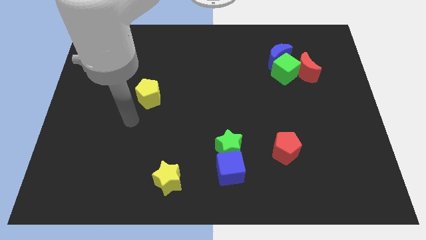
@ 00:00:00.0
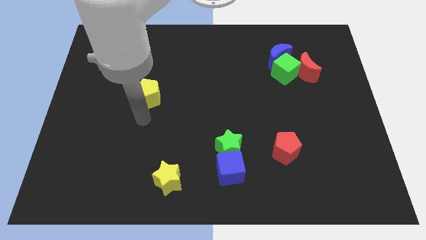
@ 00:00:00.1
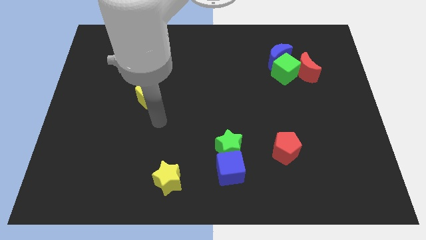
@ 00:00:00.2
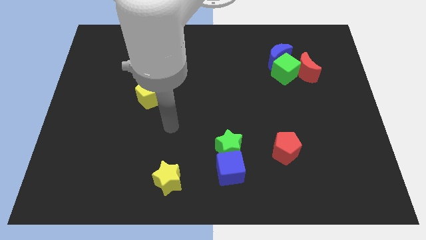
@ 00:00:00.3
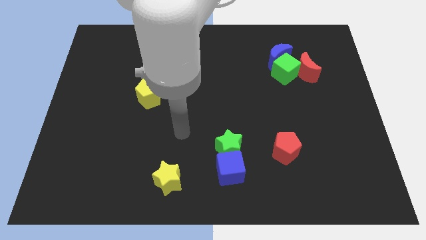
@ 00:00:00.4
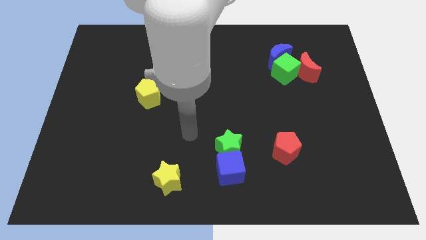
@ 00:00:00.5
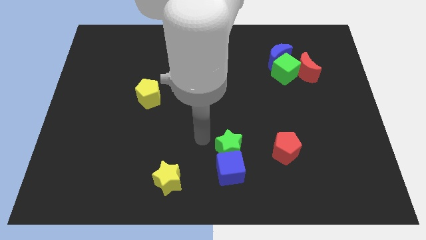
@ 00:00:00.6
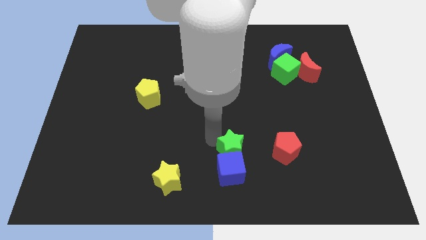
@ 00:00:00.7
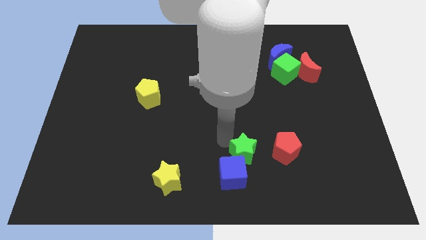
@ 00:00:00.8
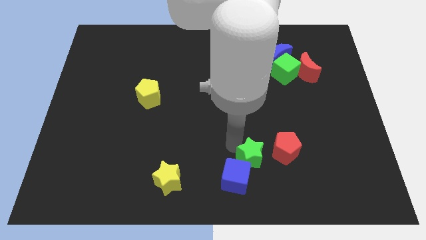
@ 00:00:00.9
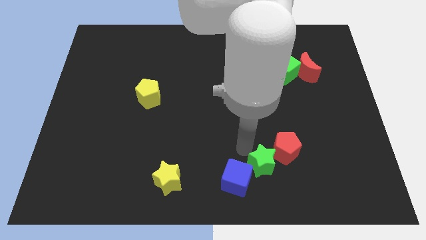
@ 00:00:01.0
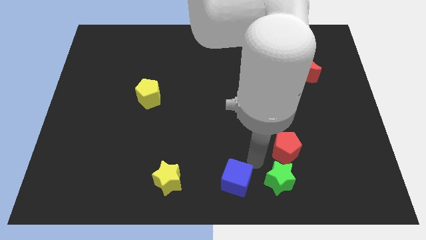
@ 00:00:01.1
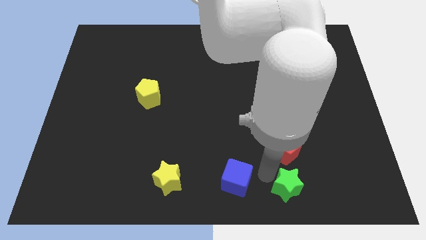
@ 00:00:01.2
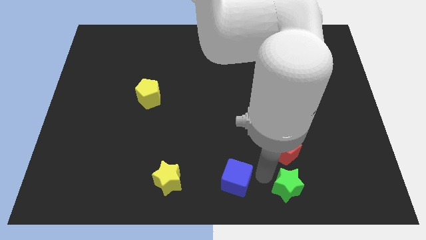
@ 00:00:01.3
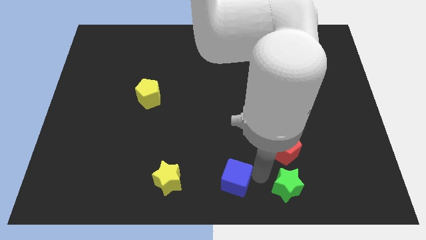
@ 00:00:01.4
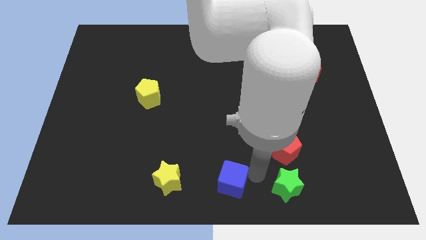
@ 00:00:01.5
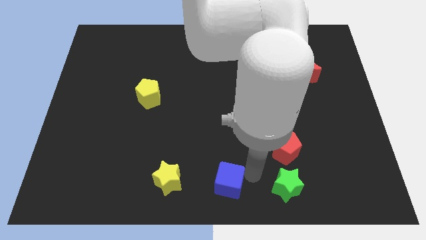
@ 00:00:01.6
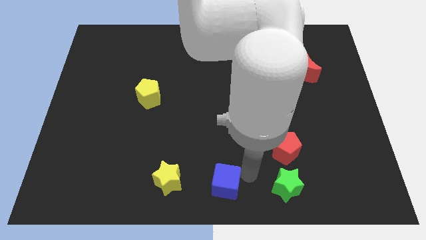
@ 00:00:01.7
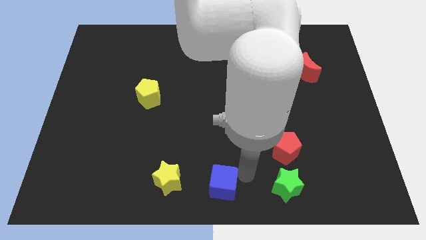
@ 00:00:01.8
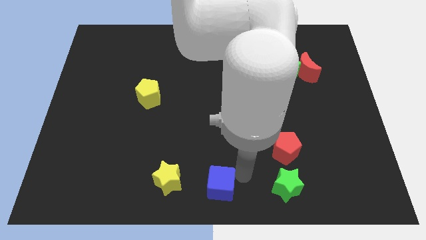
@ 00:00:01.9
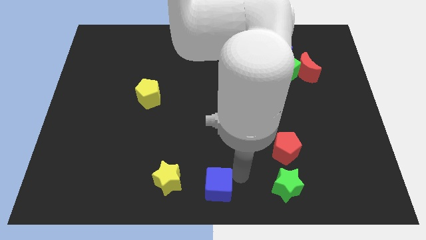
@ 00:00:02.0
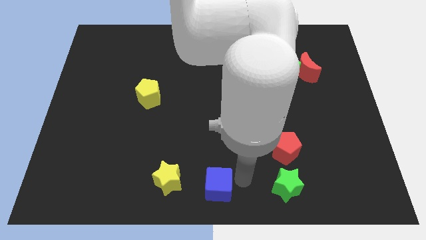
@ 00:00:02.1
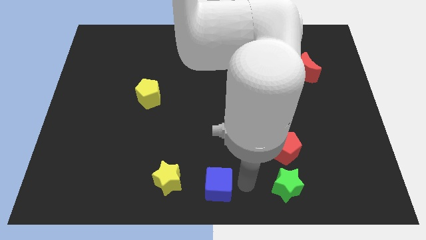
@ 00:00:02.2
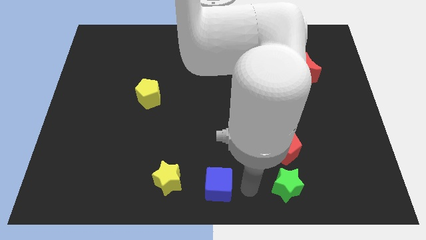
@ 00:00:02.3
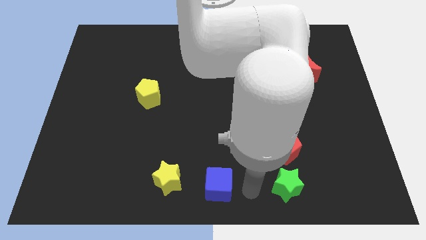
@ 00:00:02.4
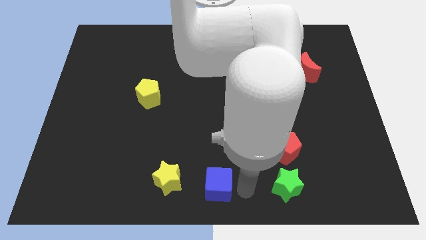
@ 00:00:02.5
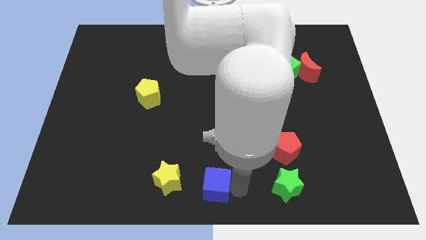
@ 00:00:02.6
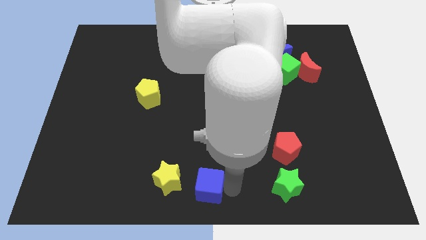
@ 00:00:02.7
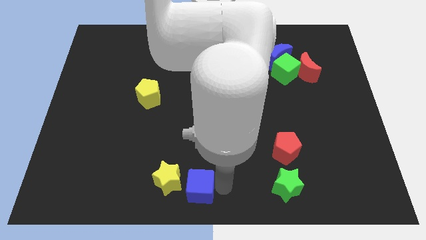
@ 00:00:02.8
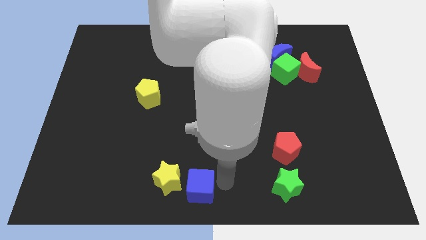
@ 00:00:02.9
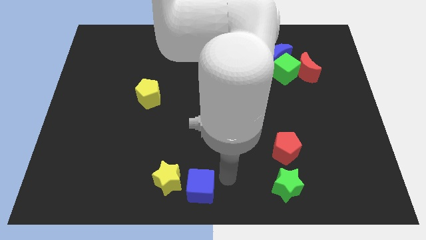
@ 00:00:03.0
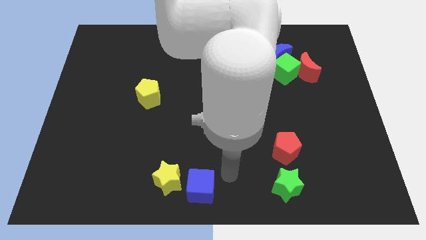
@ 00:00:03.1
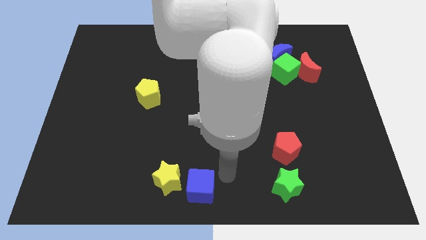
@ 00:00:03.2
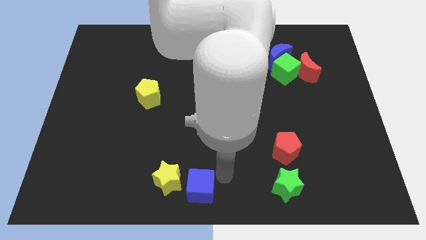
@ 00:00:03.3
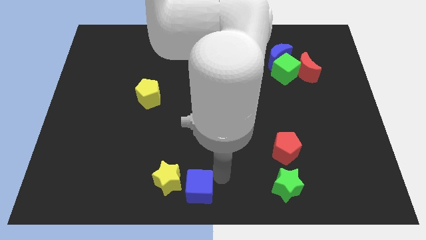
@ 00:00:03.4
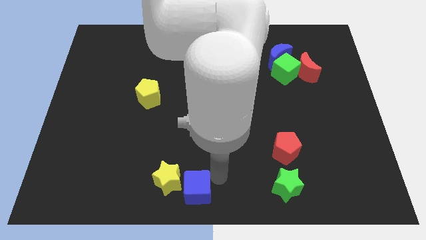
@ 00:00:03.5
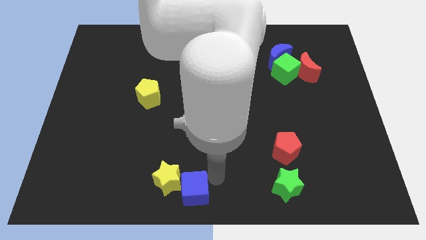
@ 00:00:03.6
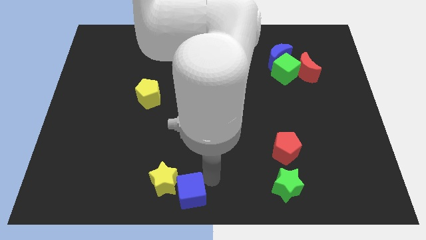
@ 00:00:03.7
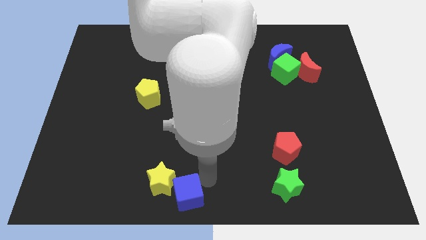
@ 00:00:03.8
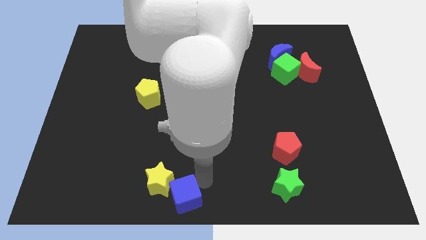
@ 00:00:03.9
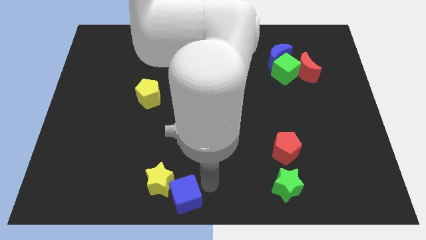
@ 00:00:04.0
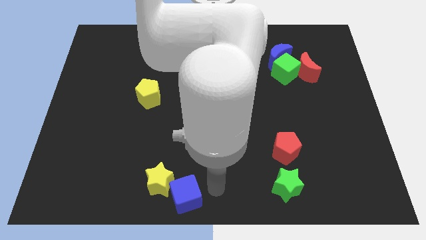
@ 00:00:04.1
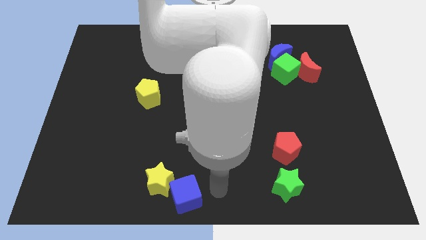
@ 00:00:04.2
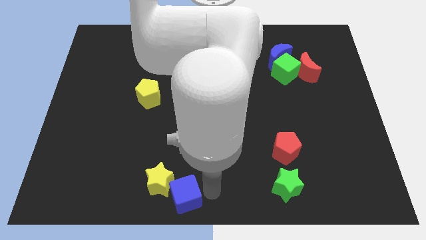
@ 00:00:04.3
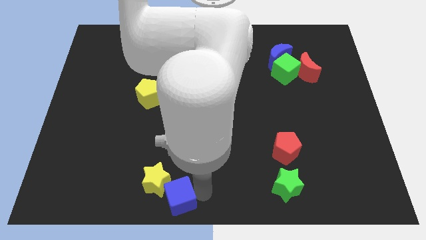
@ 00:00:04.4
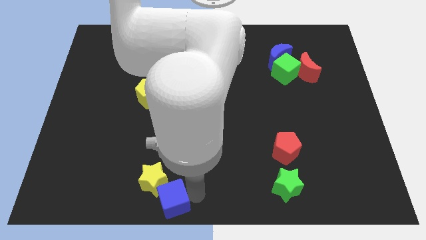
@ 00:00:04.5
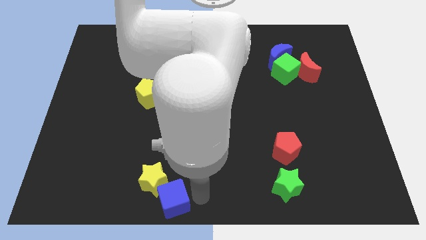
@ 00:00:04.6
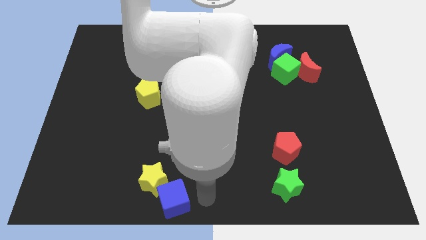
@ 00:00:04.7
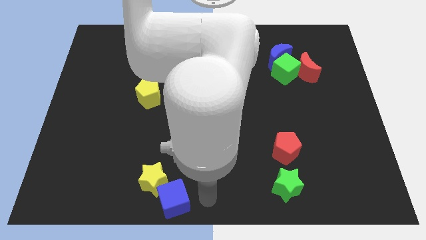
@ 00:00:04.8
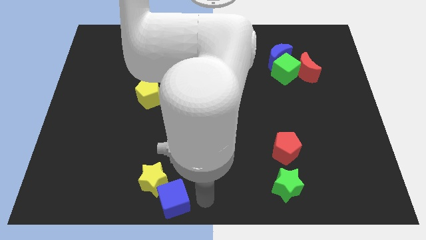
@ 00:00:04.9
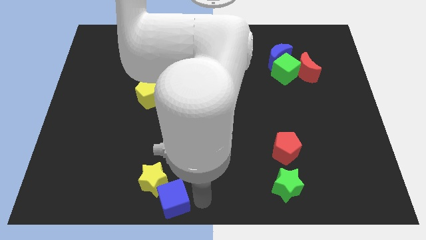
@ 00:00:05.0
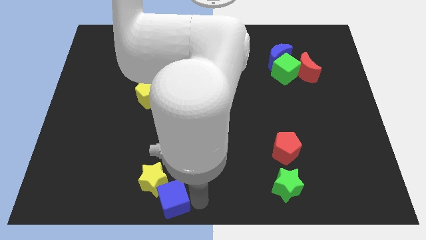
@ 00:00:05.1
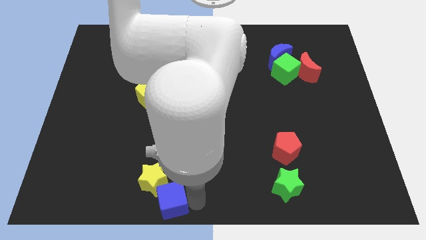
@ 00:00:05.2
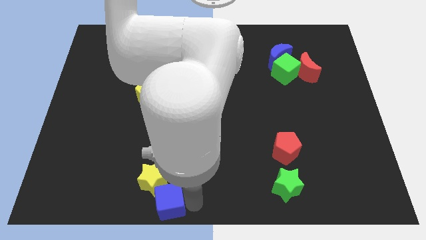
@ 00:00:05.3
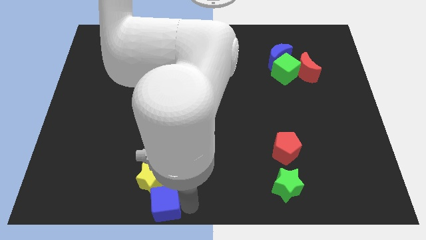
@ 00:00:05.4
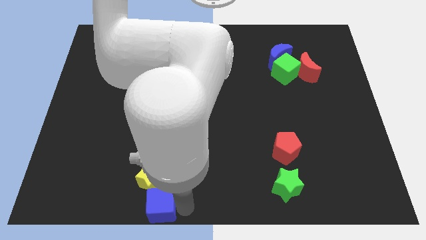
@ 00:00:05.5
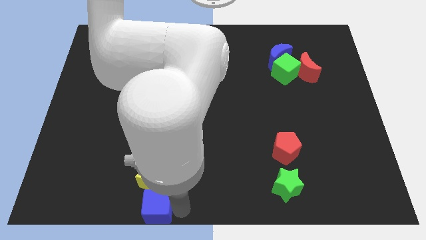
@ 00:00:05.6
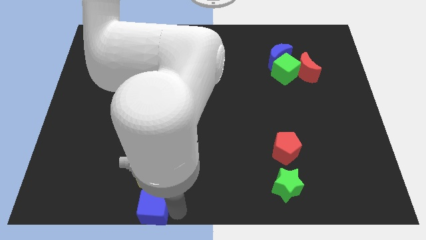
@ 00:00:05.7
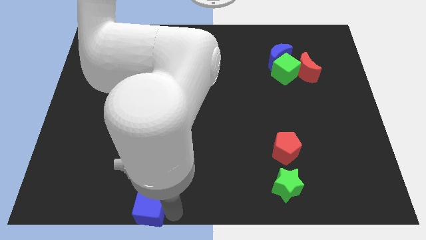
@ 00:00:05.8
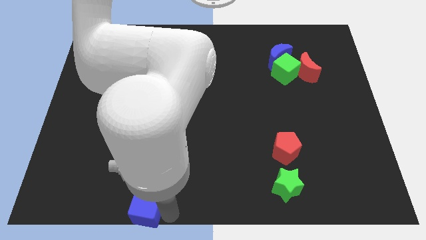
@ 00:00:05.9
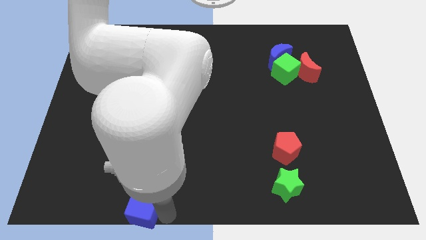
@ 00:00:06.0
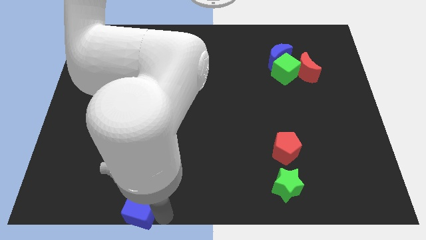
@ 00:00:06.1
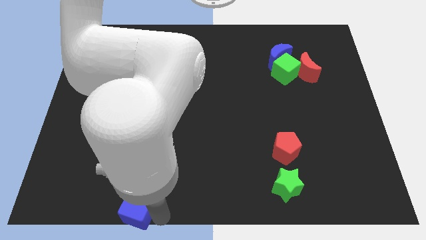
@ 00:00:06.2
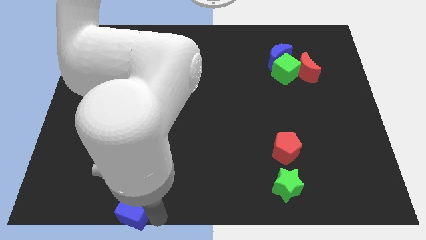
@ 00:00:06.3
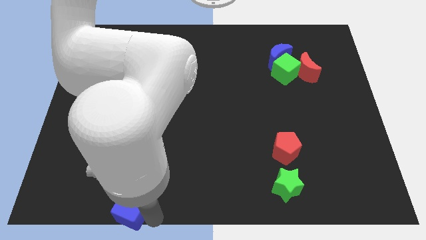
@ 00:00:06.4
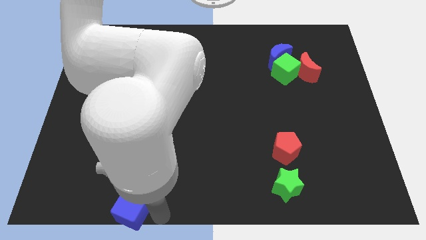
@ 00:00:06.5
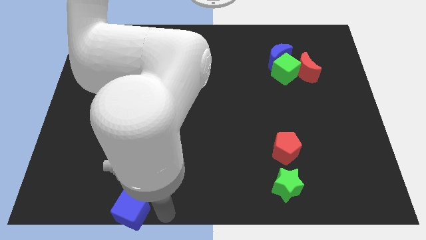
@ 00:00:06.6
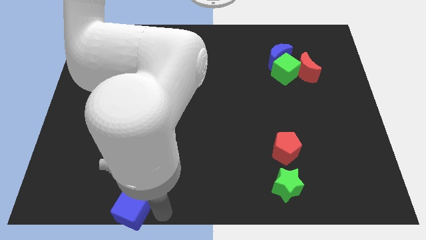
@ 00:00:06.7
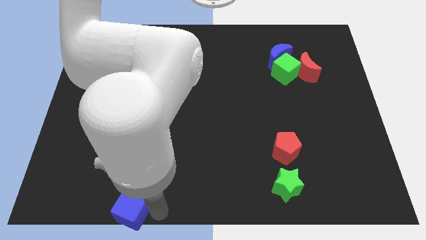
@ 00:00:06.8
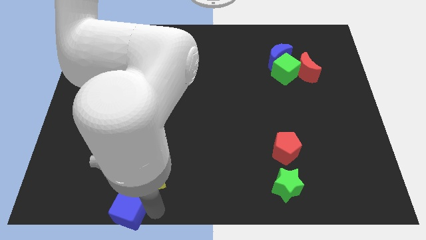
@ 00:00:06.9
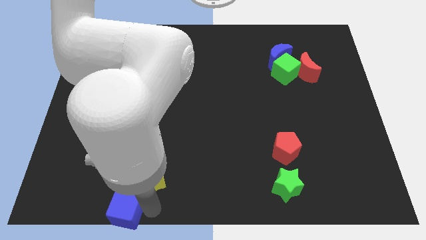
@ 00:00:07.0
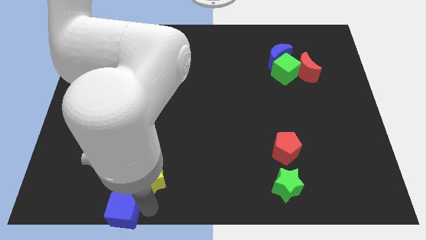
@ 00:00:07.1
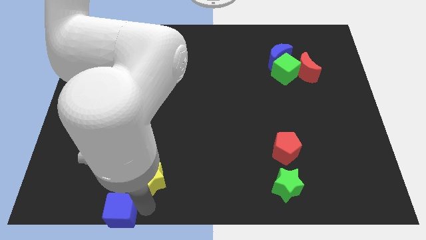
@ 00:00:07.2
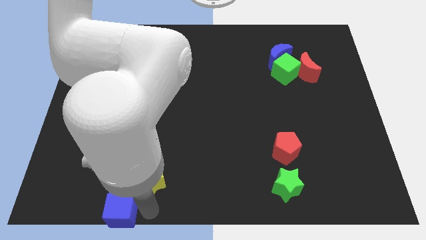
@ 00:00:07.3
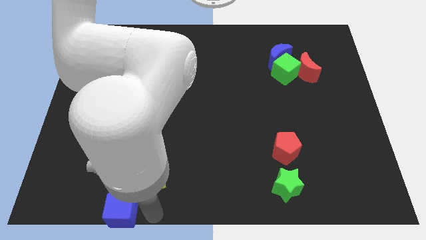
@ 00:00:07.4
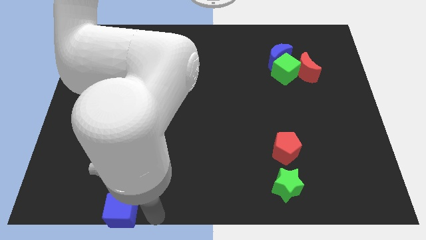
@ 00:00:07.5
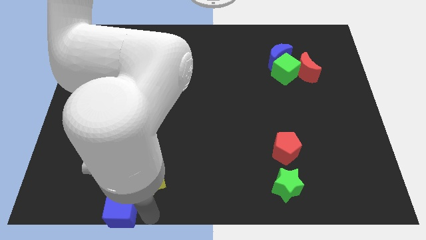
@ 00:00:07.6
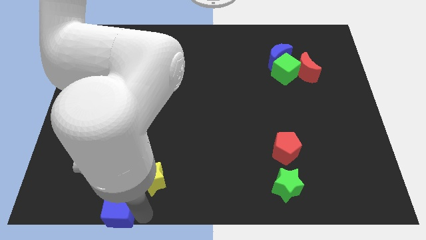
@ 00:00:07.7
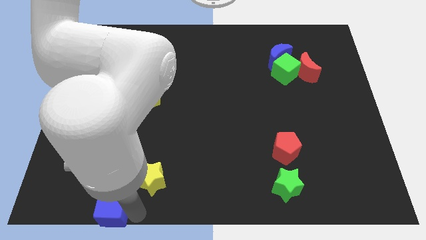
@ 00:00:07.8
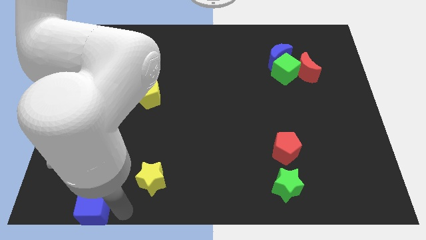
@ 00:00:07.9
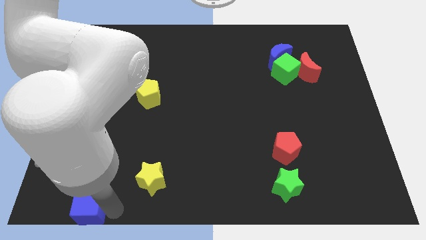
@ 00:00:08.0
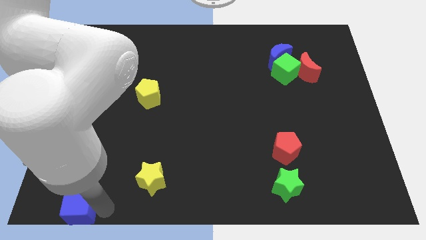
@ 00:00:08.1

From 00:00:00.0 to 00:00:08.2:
slide the blue cube to the bottom left of the board
